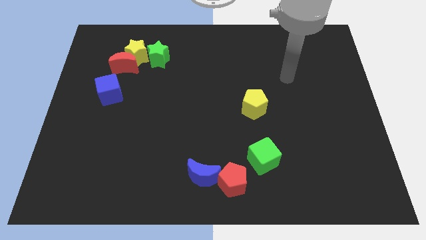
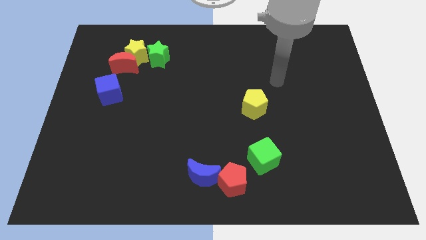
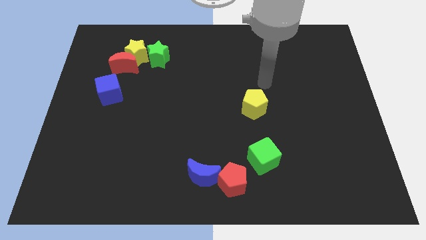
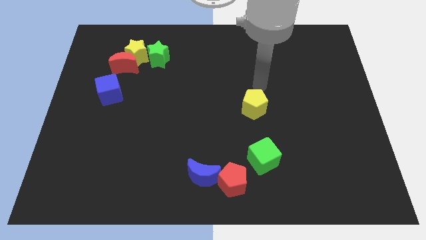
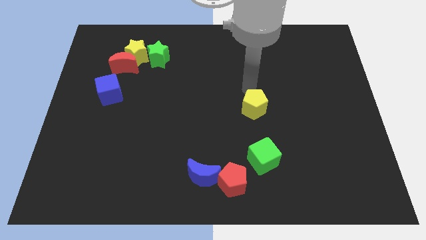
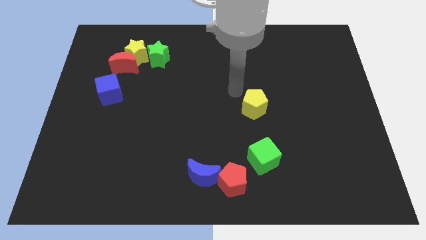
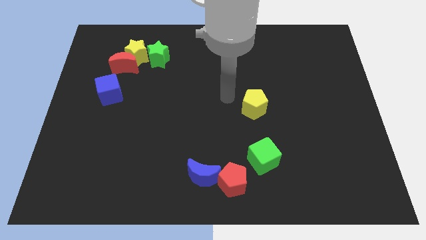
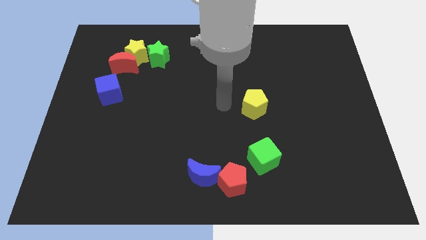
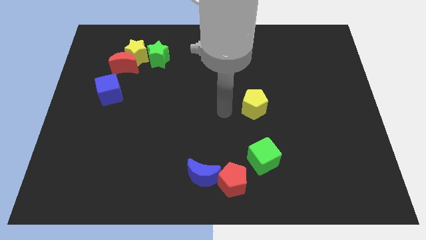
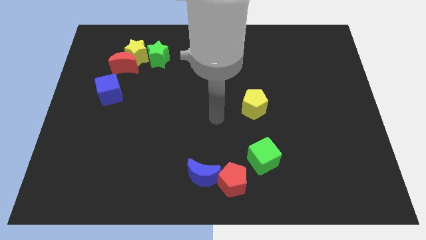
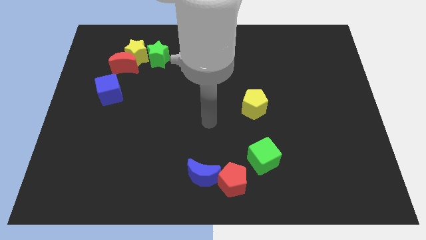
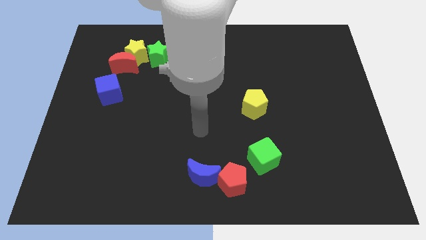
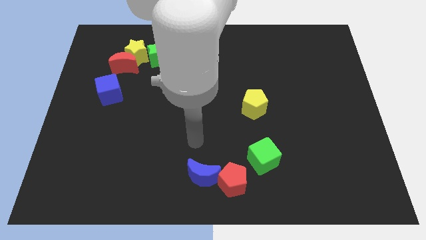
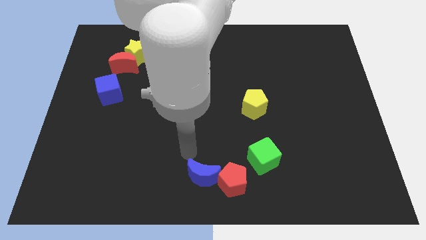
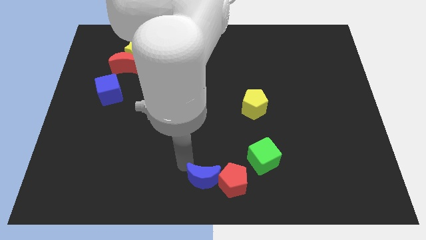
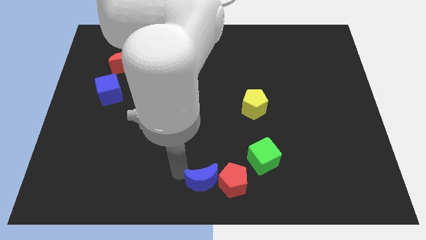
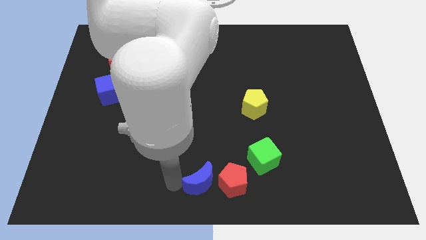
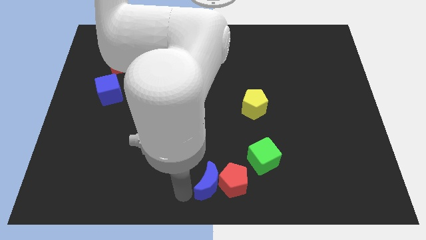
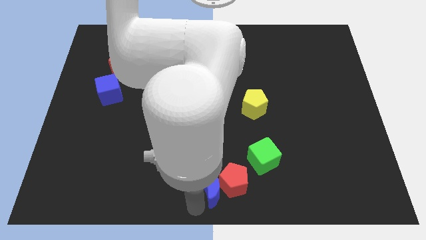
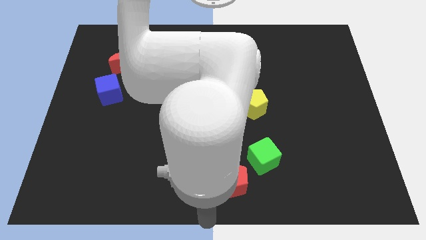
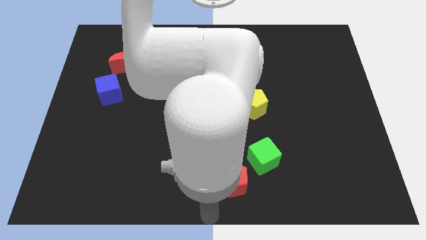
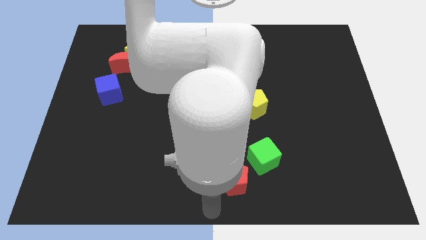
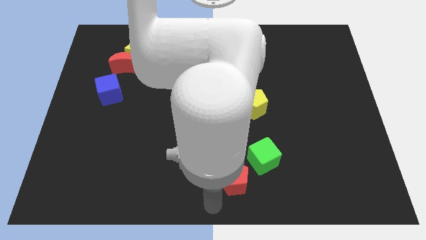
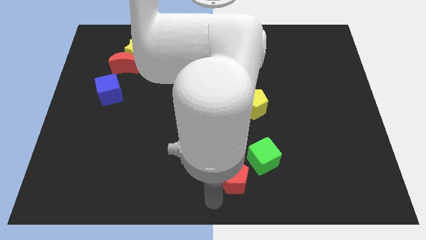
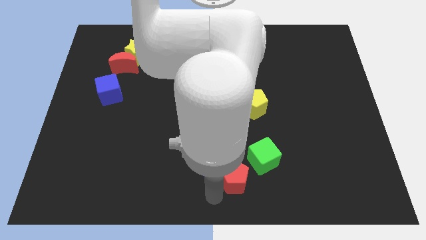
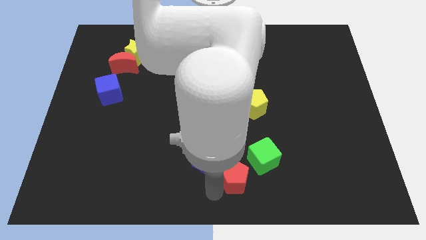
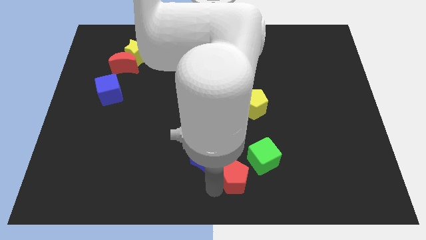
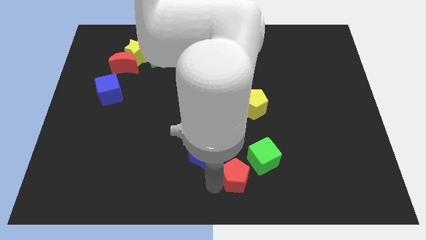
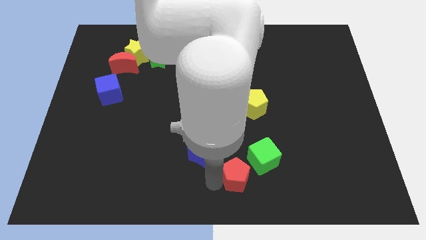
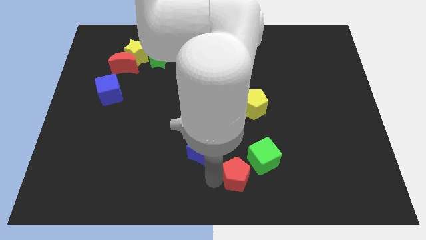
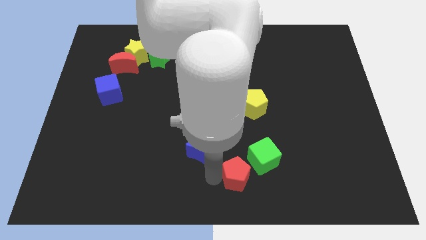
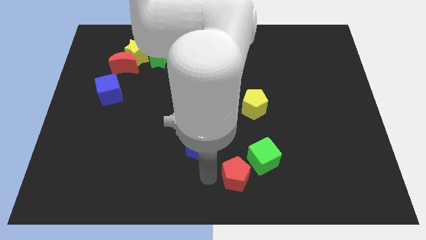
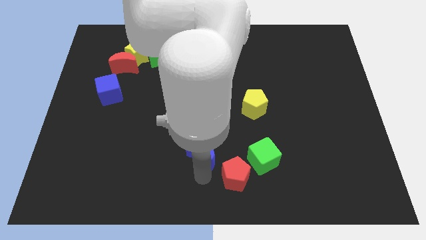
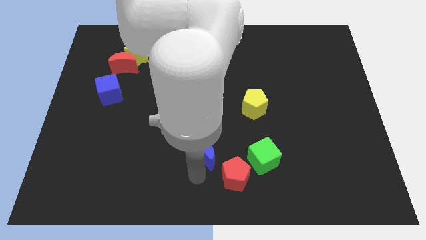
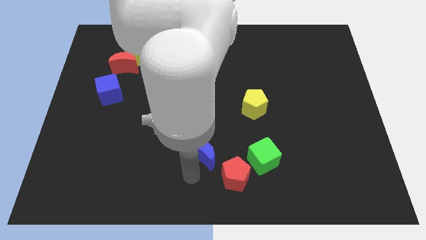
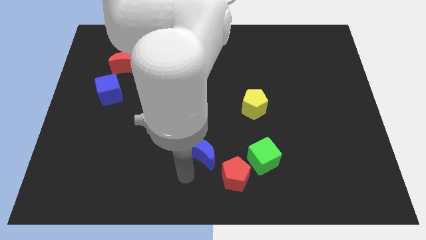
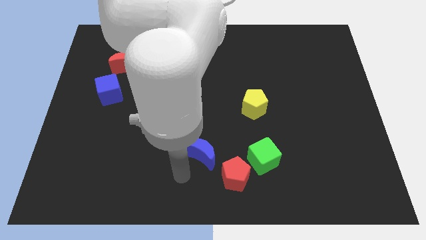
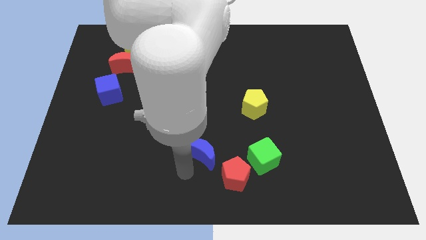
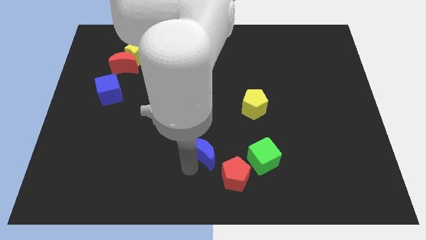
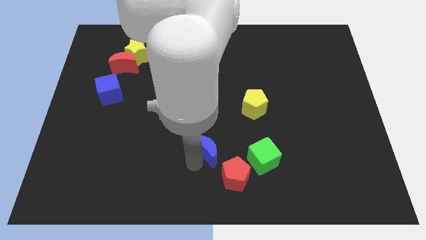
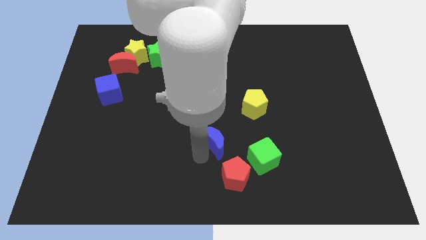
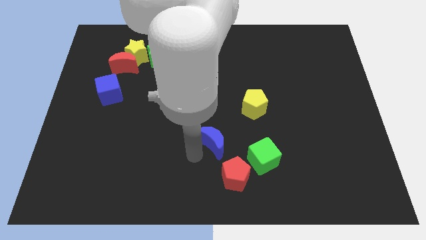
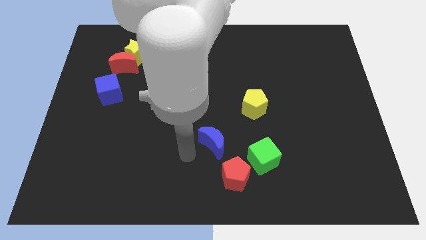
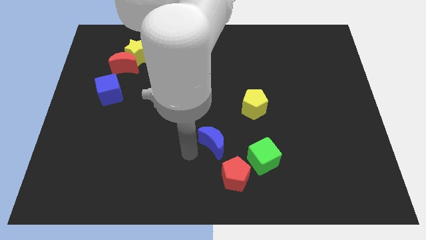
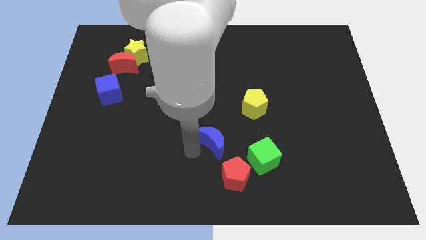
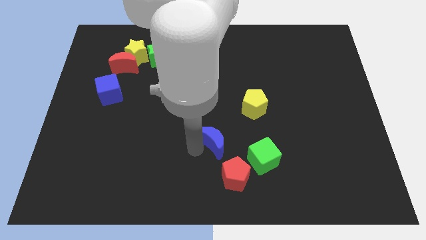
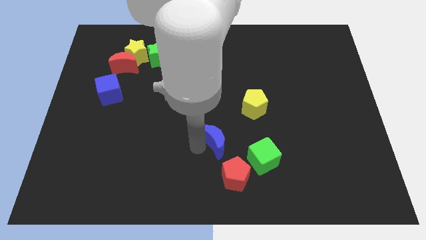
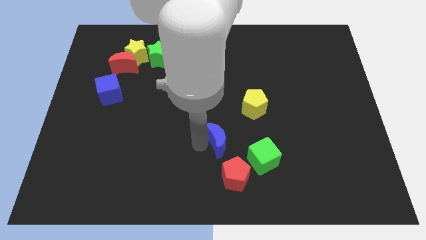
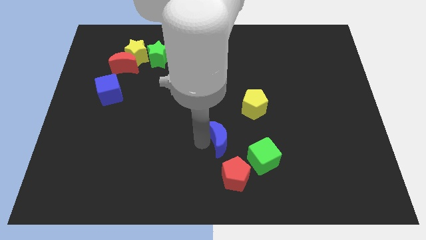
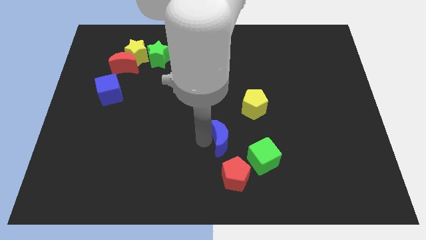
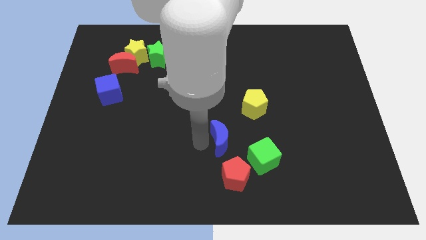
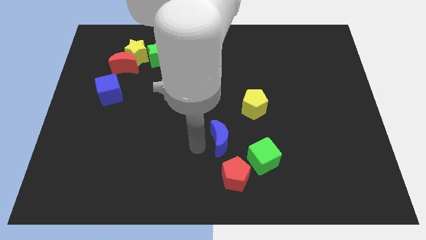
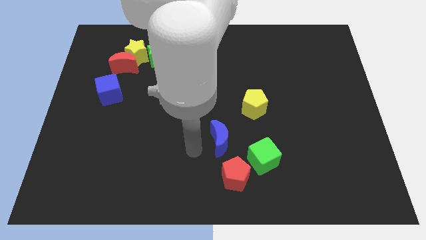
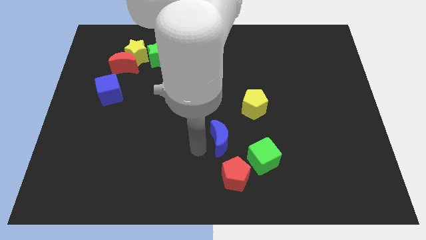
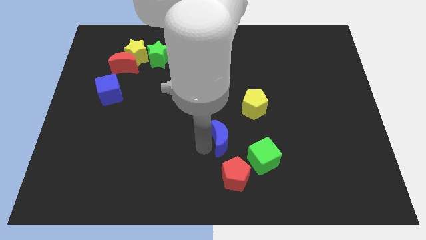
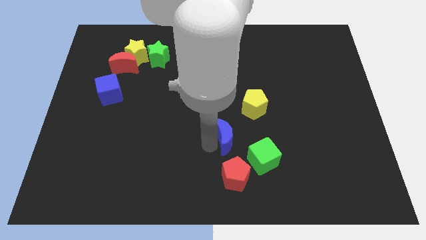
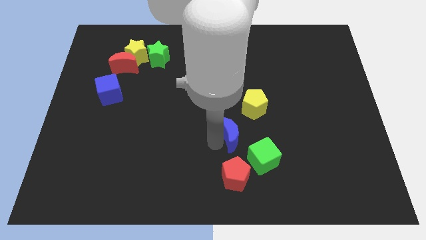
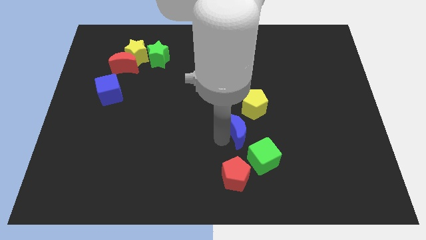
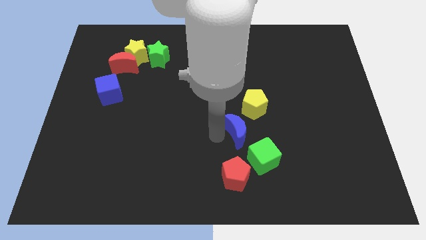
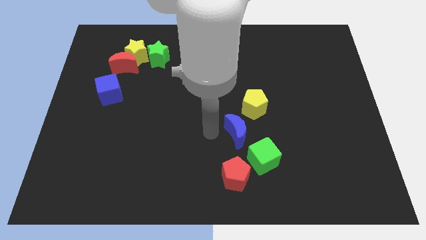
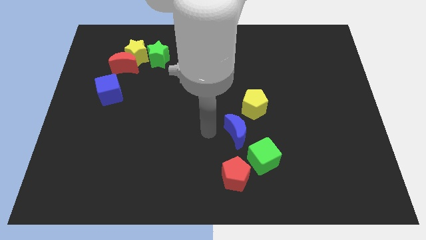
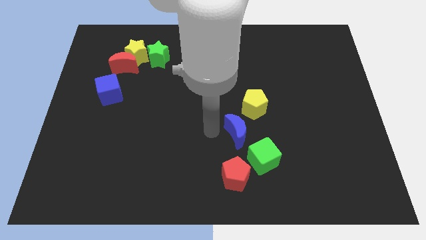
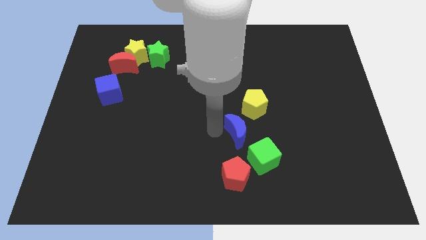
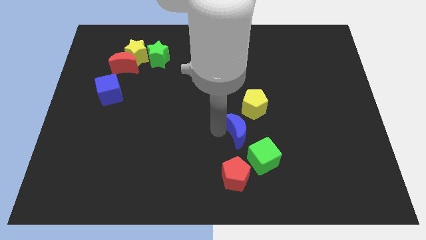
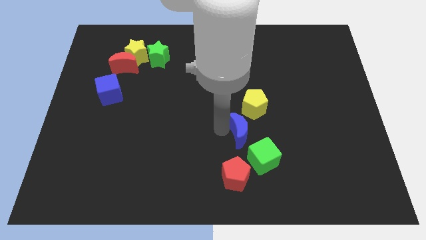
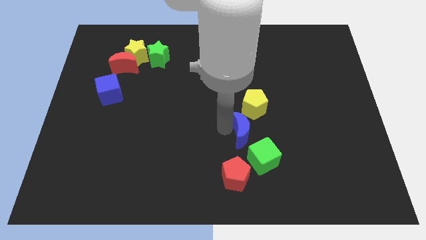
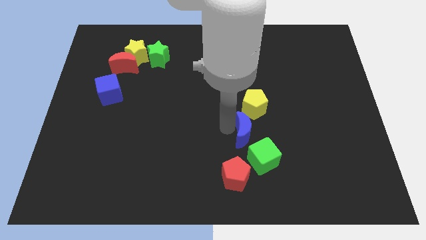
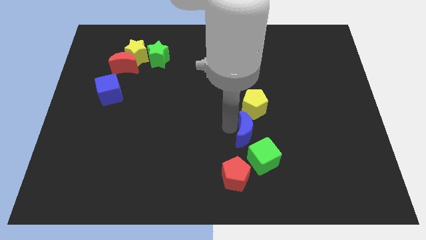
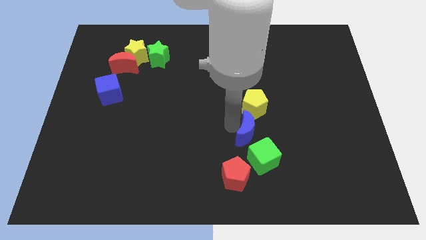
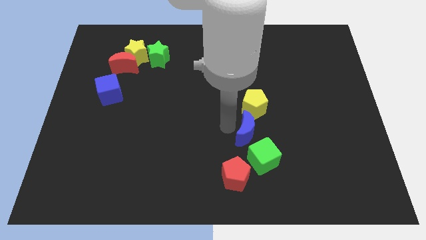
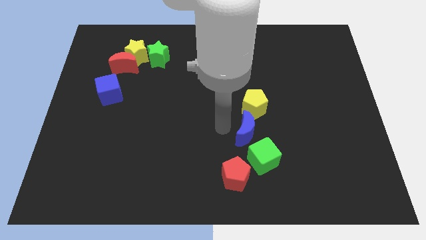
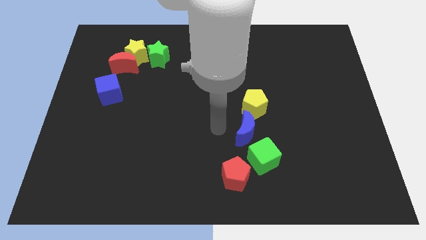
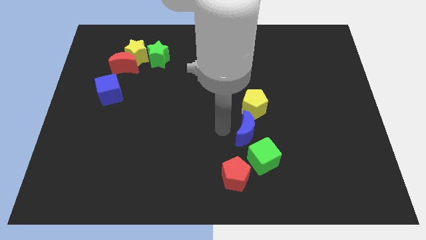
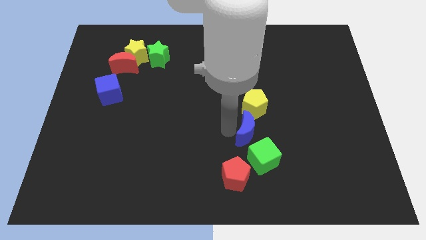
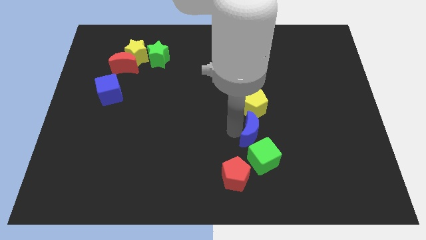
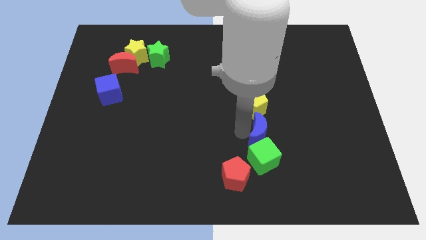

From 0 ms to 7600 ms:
push the blue moon to the top right side of the green cube
